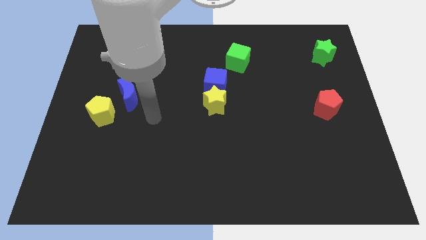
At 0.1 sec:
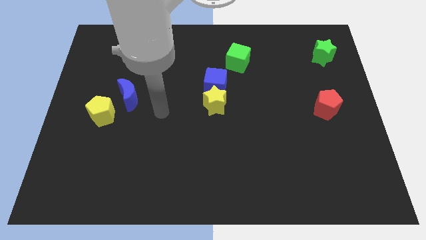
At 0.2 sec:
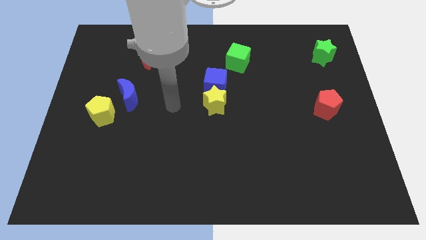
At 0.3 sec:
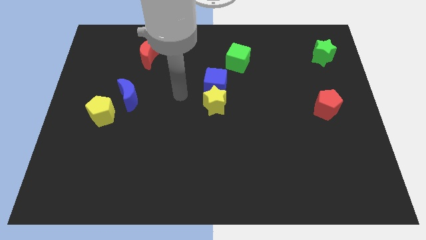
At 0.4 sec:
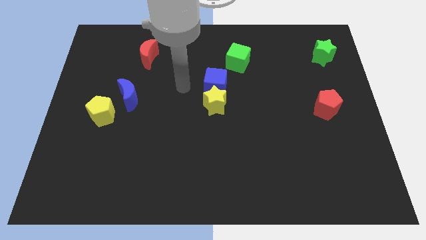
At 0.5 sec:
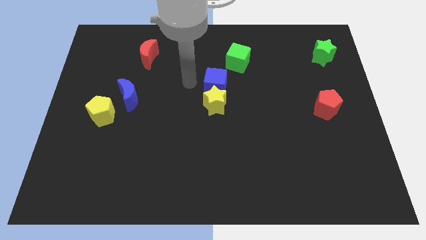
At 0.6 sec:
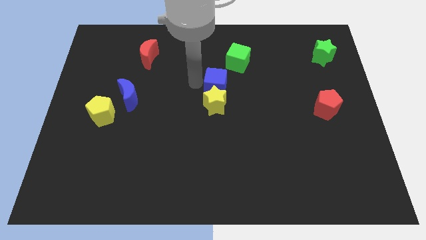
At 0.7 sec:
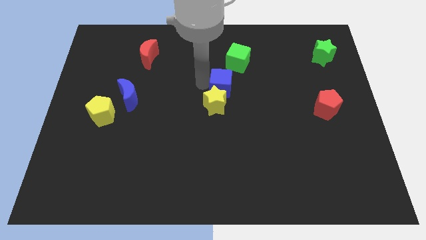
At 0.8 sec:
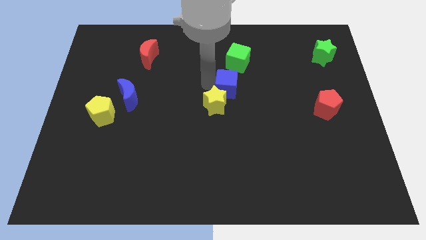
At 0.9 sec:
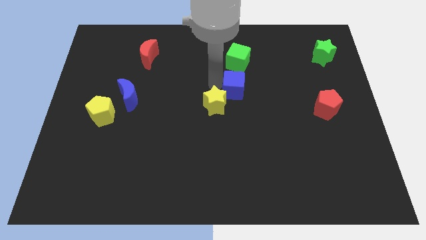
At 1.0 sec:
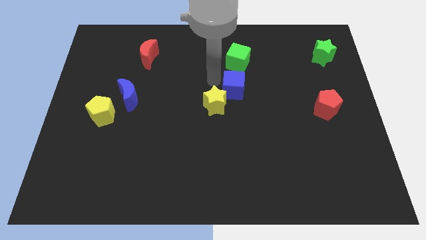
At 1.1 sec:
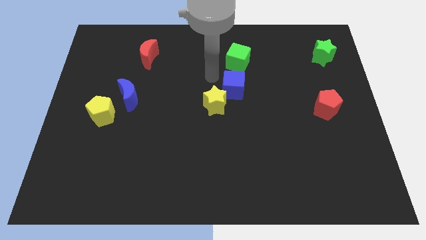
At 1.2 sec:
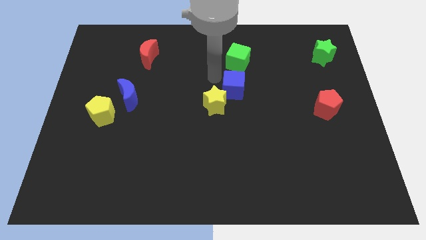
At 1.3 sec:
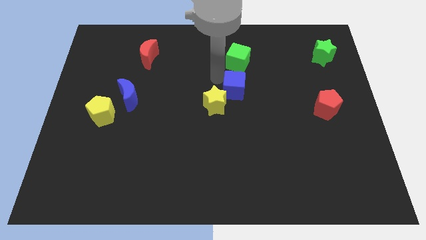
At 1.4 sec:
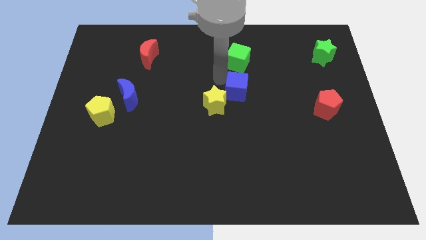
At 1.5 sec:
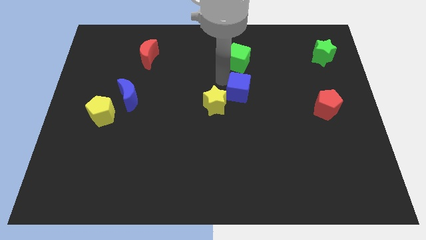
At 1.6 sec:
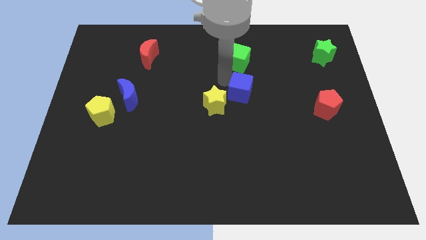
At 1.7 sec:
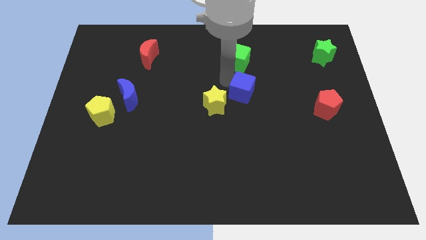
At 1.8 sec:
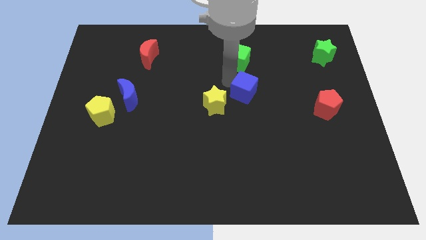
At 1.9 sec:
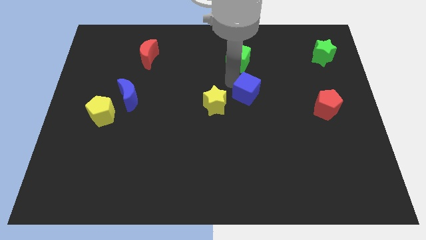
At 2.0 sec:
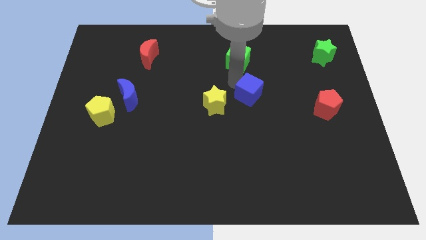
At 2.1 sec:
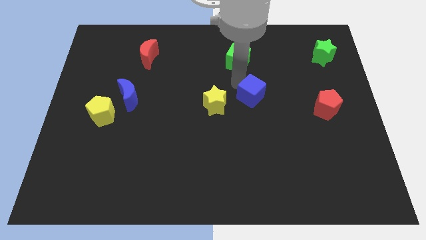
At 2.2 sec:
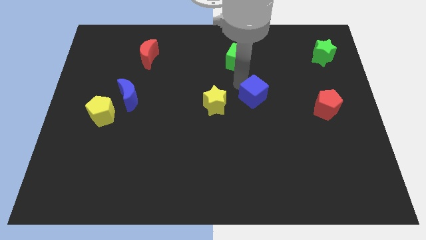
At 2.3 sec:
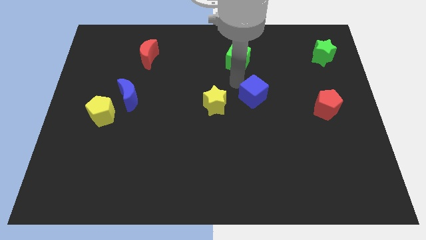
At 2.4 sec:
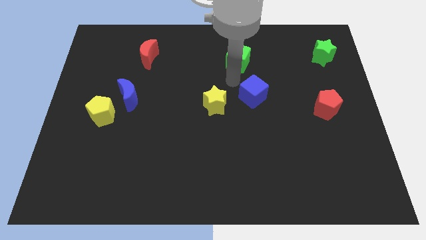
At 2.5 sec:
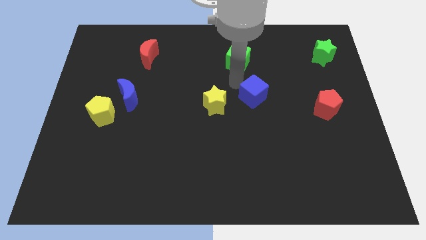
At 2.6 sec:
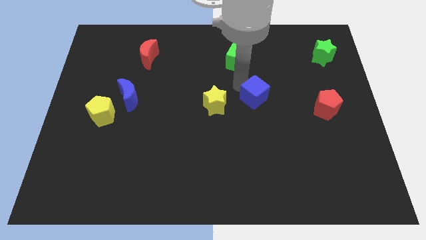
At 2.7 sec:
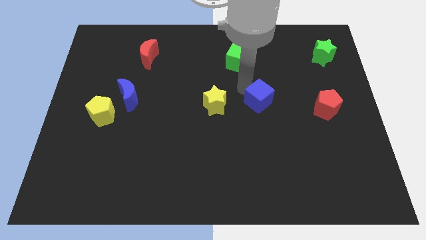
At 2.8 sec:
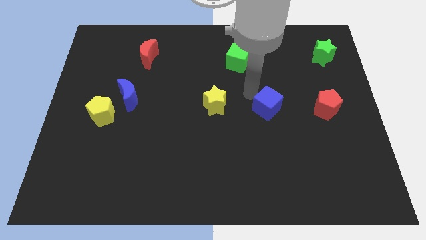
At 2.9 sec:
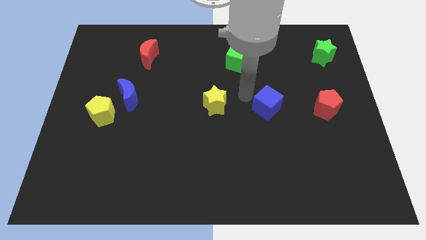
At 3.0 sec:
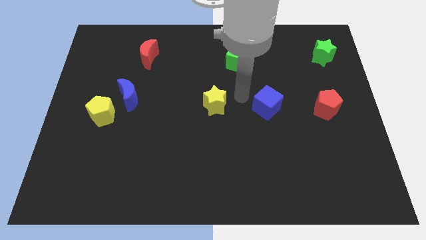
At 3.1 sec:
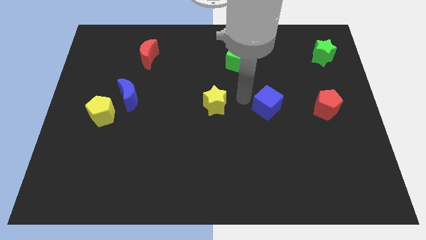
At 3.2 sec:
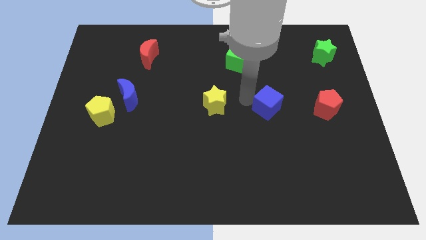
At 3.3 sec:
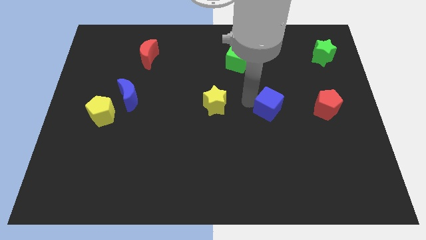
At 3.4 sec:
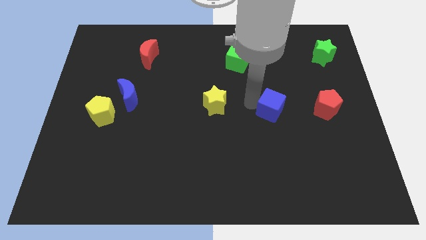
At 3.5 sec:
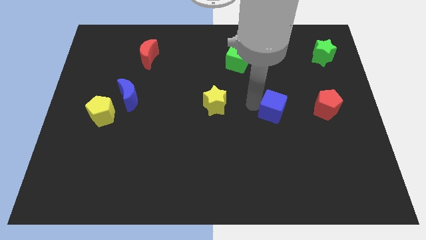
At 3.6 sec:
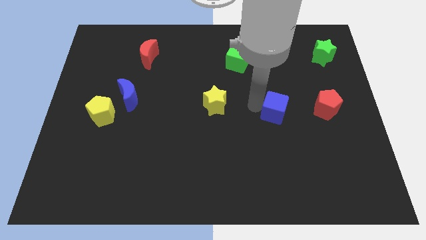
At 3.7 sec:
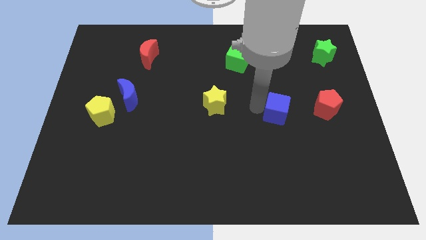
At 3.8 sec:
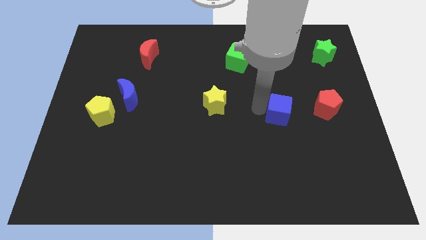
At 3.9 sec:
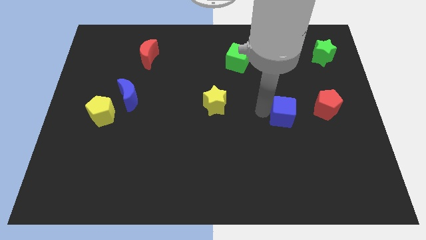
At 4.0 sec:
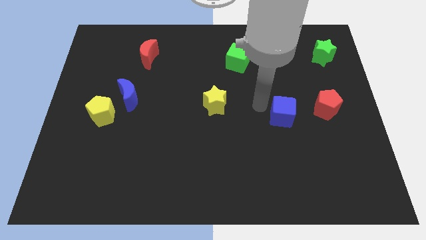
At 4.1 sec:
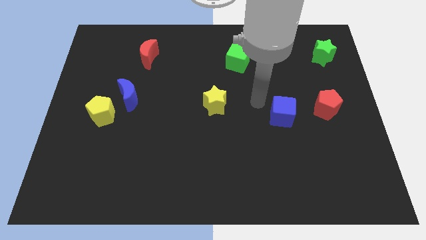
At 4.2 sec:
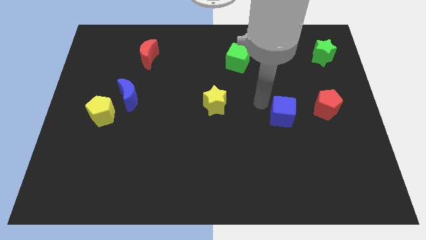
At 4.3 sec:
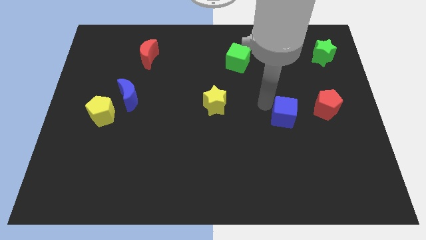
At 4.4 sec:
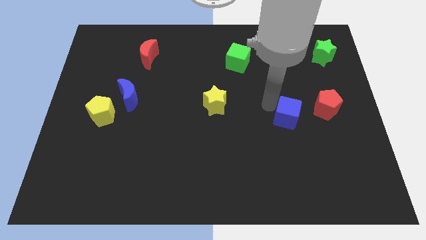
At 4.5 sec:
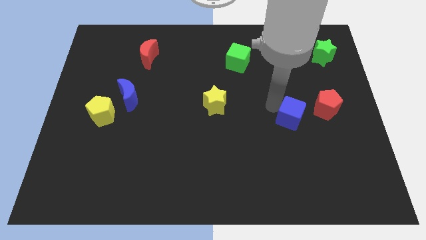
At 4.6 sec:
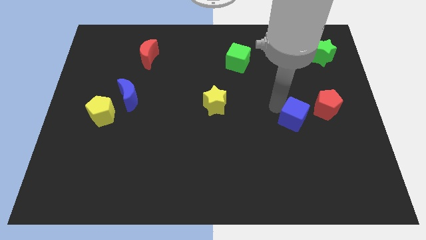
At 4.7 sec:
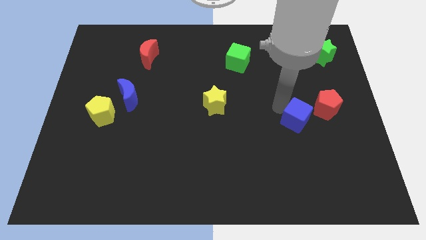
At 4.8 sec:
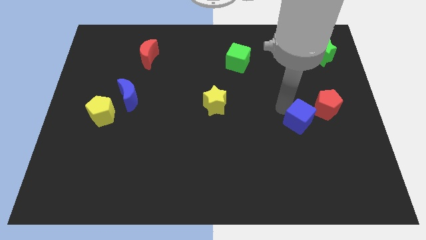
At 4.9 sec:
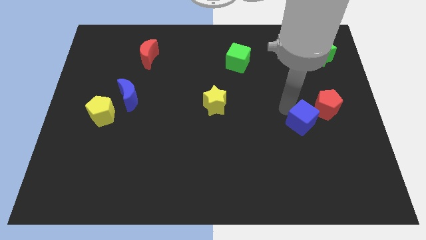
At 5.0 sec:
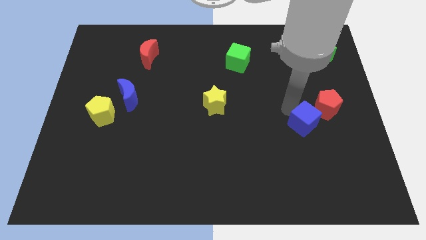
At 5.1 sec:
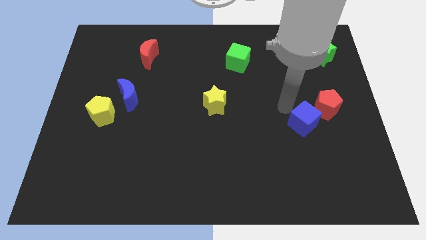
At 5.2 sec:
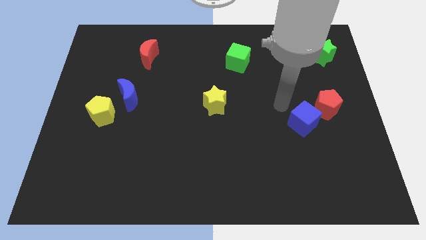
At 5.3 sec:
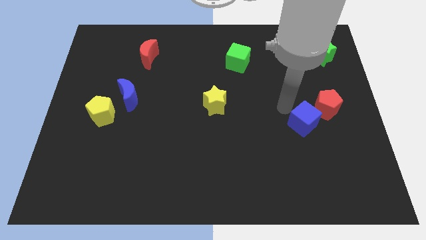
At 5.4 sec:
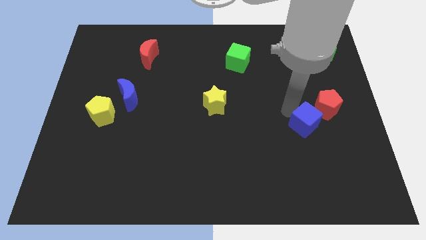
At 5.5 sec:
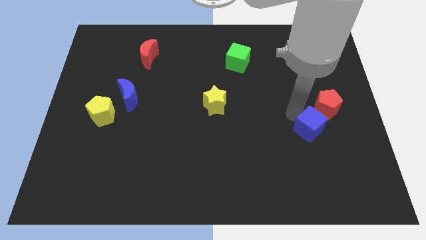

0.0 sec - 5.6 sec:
push the blue cube to the bottom side of the red pentagon

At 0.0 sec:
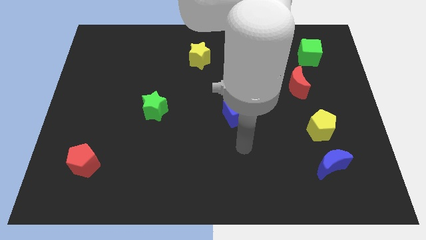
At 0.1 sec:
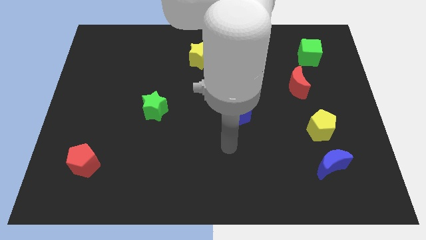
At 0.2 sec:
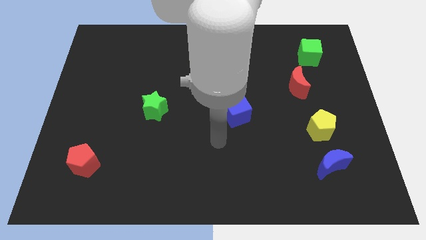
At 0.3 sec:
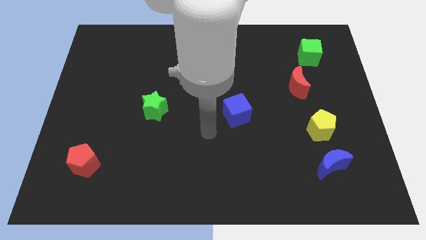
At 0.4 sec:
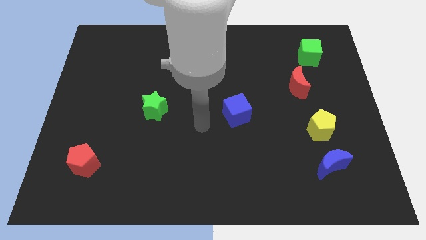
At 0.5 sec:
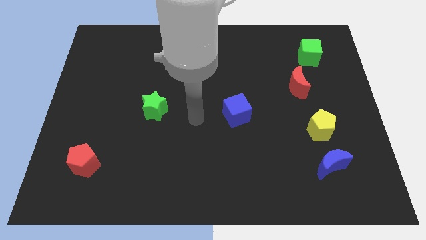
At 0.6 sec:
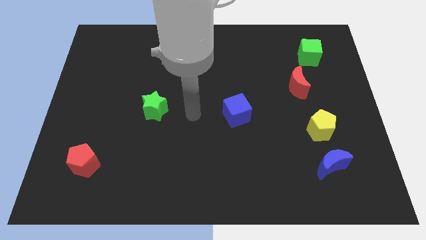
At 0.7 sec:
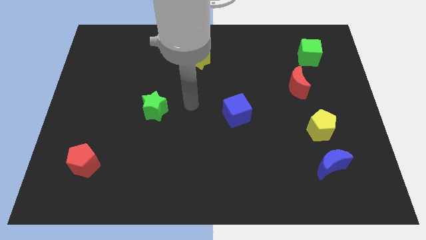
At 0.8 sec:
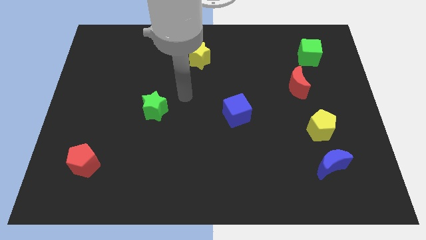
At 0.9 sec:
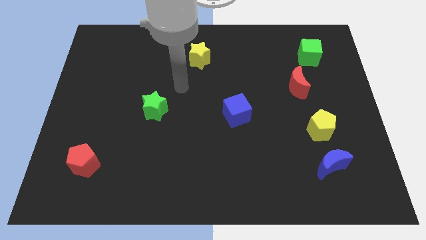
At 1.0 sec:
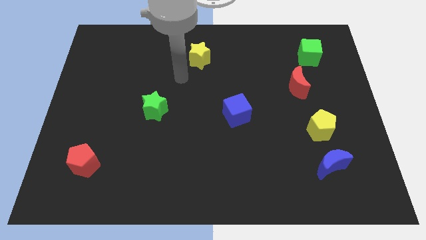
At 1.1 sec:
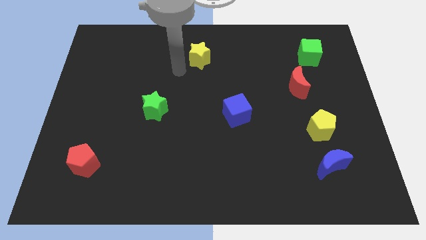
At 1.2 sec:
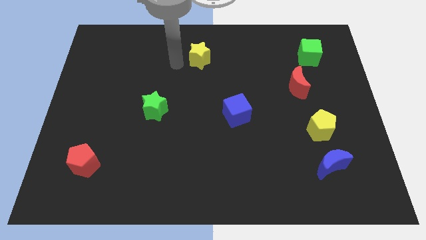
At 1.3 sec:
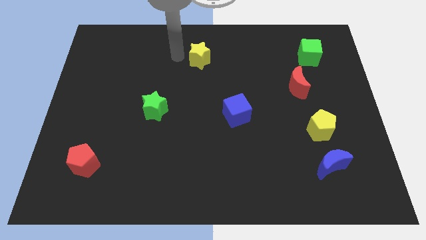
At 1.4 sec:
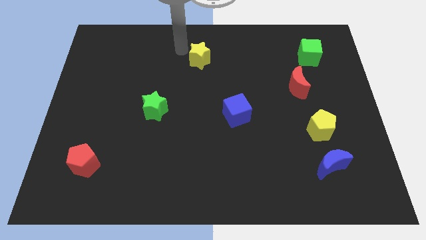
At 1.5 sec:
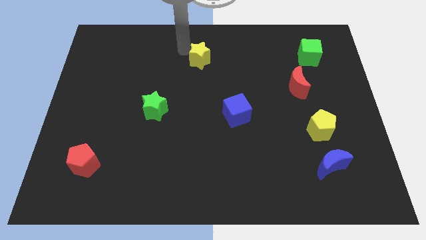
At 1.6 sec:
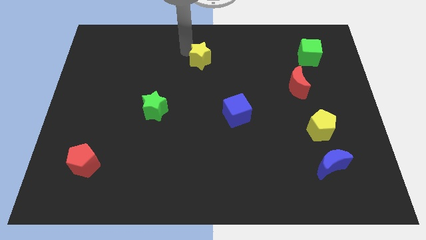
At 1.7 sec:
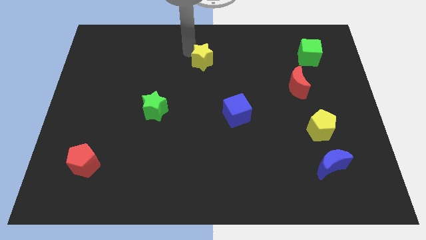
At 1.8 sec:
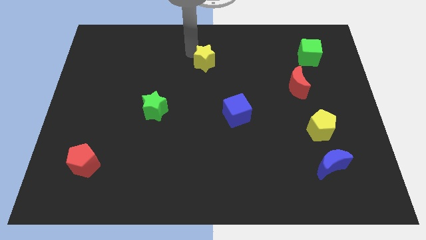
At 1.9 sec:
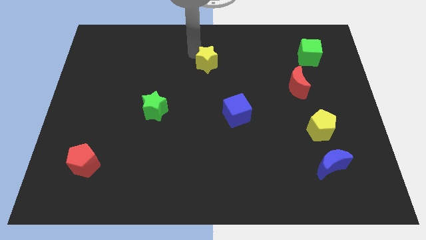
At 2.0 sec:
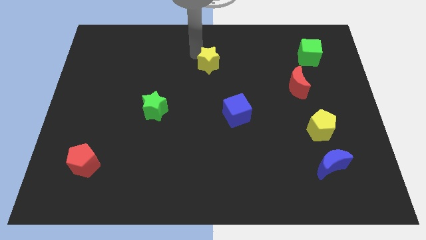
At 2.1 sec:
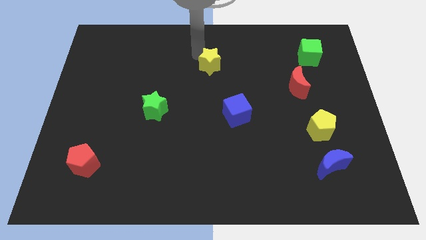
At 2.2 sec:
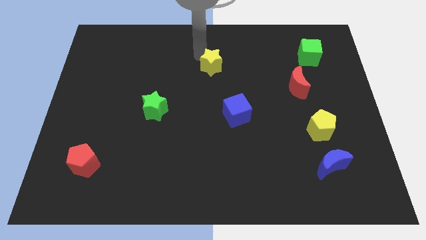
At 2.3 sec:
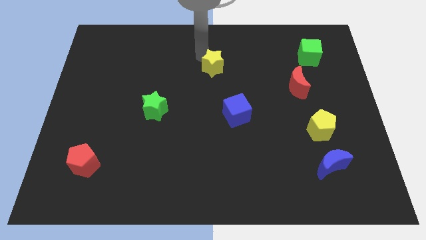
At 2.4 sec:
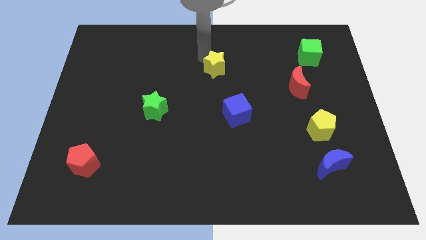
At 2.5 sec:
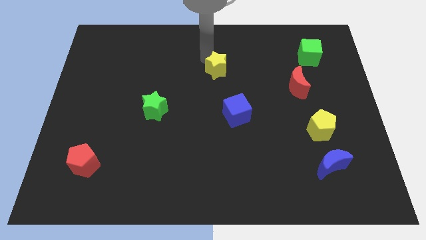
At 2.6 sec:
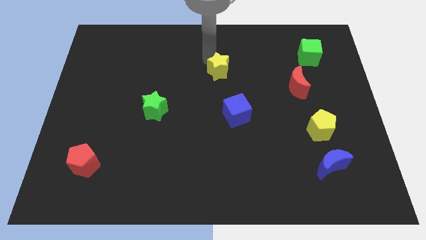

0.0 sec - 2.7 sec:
put the yellow star to the top of the blue cube
